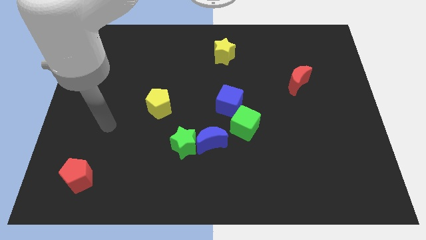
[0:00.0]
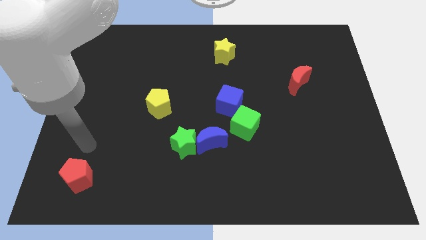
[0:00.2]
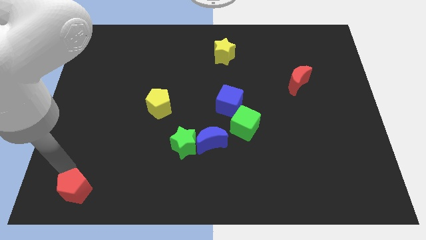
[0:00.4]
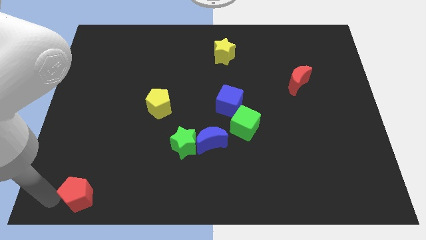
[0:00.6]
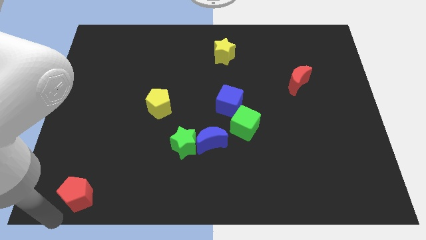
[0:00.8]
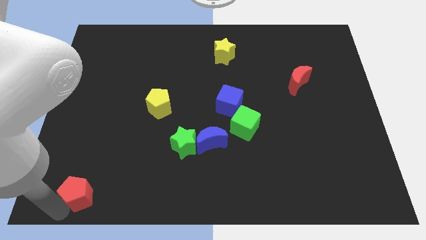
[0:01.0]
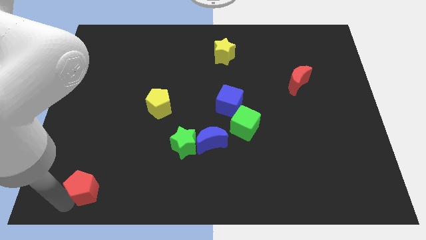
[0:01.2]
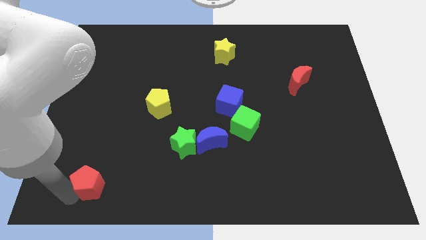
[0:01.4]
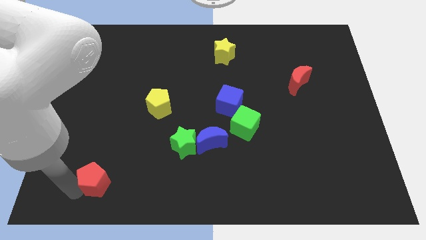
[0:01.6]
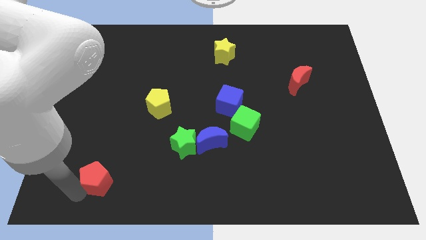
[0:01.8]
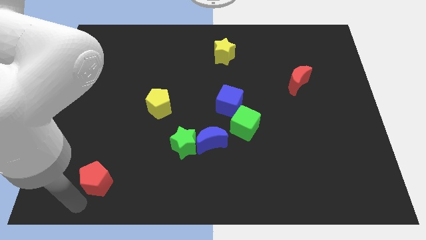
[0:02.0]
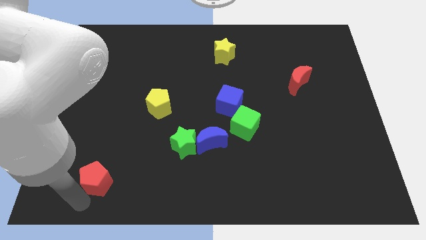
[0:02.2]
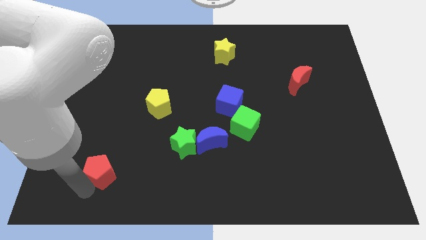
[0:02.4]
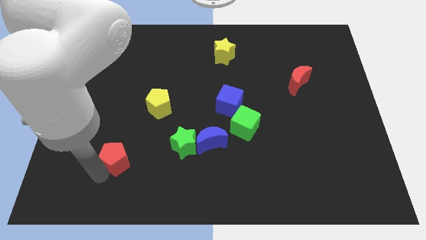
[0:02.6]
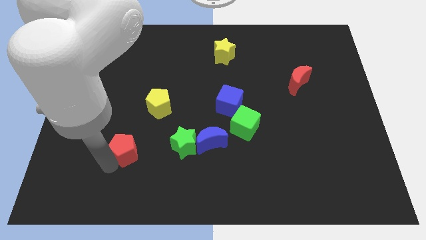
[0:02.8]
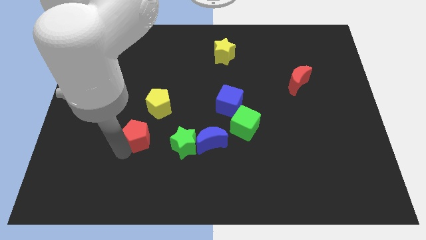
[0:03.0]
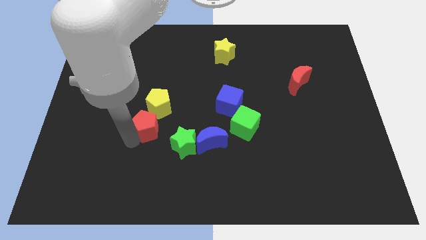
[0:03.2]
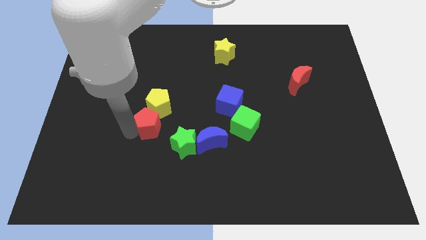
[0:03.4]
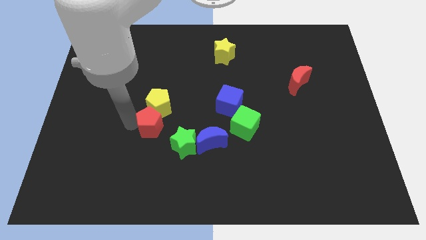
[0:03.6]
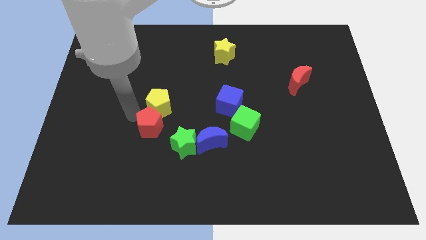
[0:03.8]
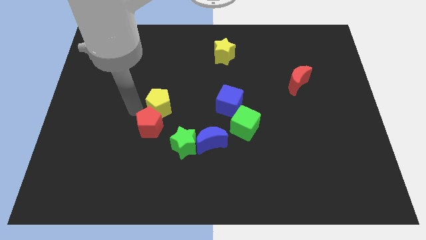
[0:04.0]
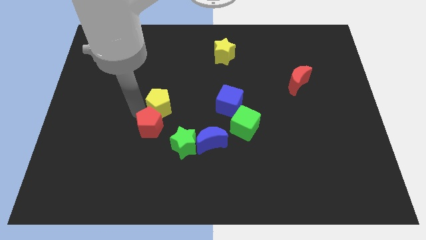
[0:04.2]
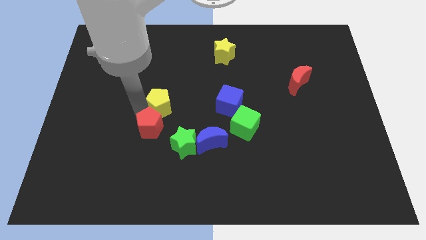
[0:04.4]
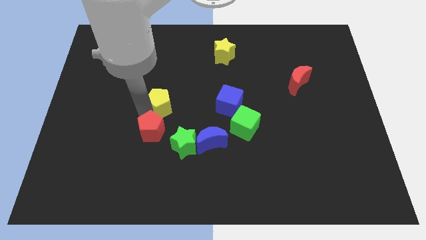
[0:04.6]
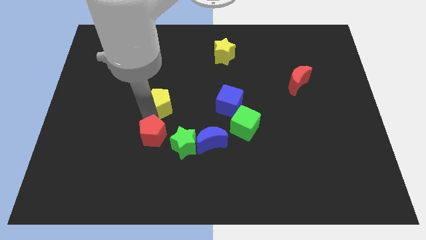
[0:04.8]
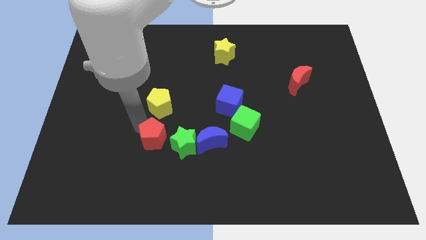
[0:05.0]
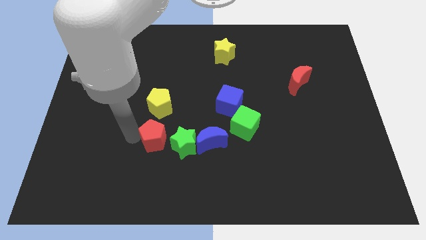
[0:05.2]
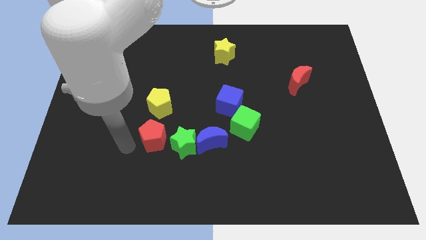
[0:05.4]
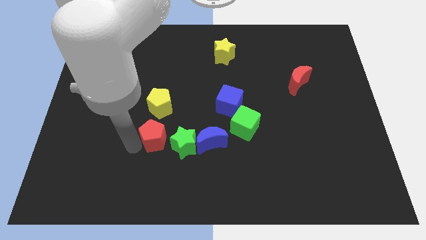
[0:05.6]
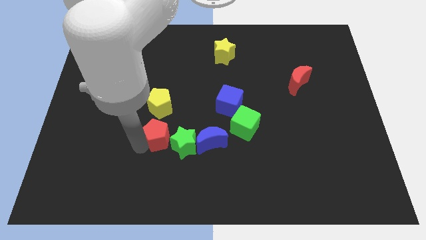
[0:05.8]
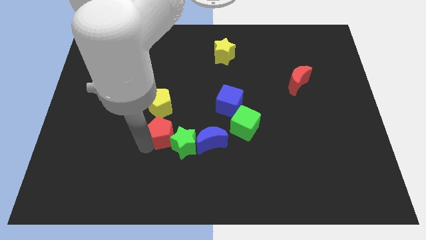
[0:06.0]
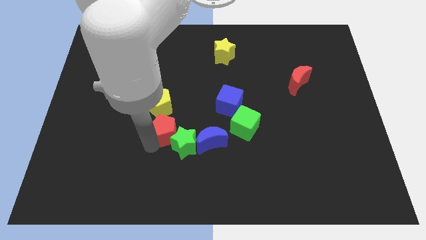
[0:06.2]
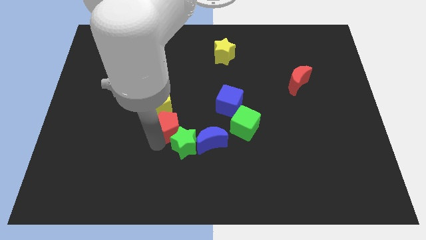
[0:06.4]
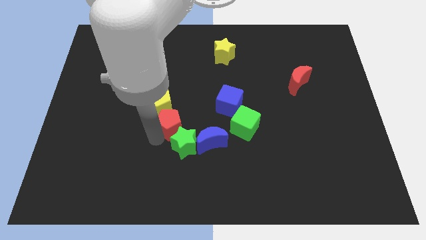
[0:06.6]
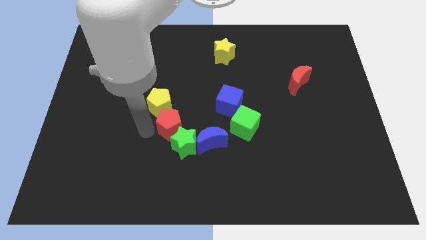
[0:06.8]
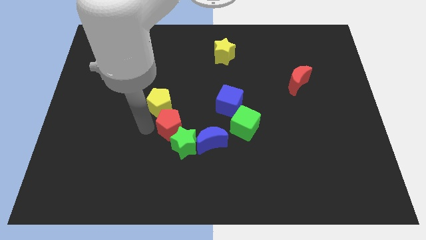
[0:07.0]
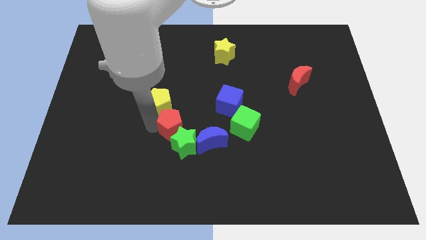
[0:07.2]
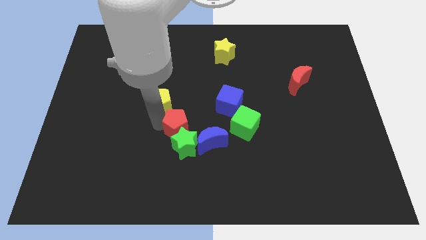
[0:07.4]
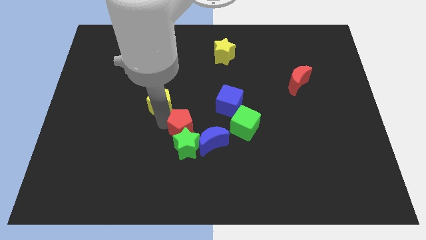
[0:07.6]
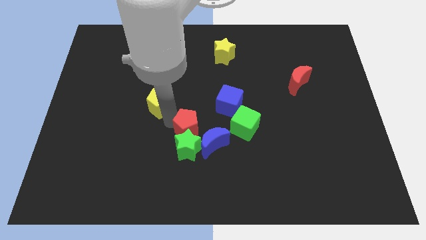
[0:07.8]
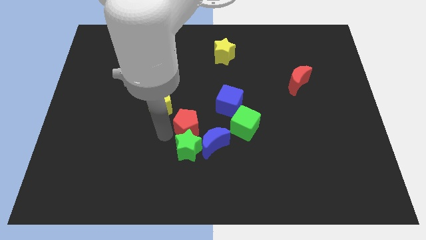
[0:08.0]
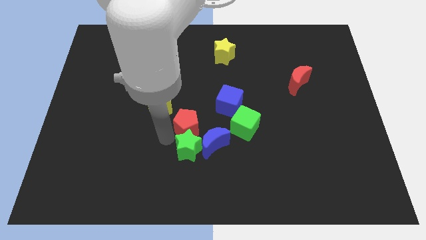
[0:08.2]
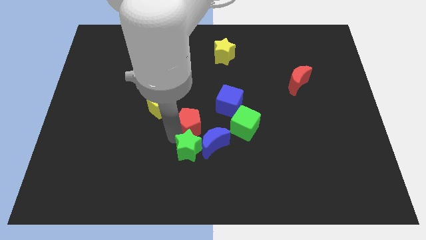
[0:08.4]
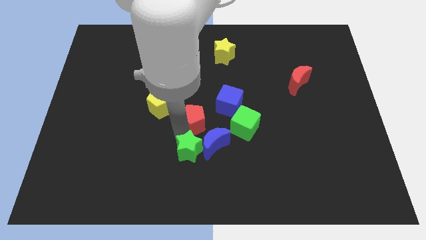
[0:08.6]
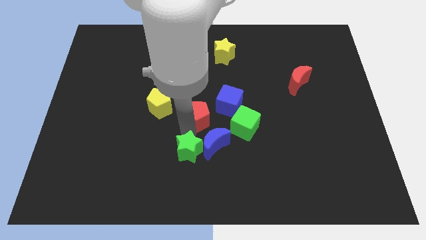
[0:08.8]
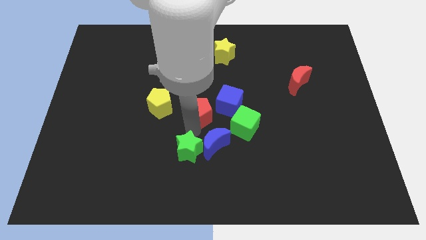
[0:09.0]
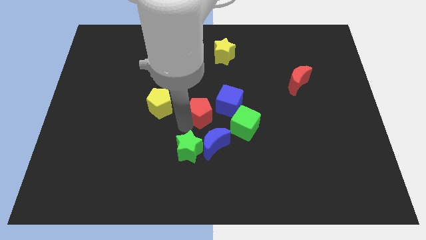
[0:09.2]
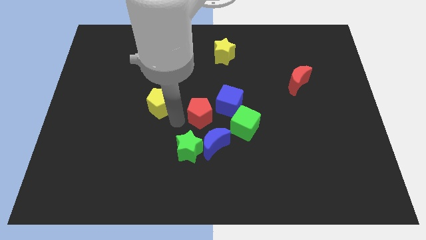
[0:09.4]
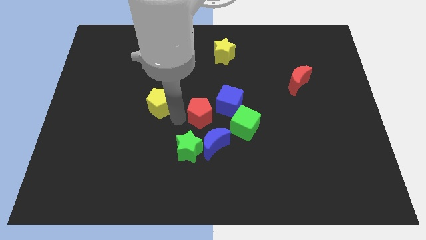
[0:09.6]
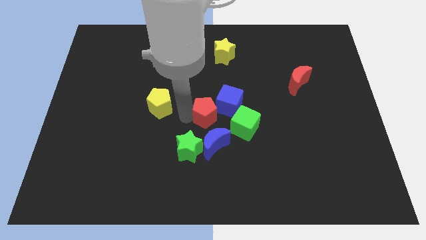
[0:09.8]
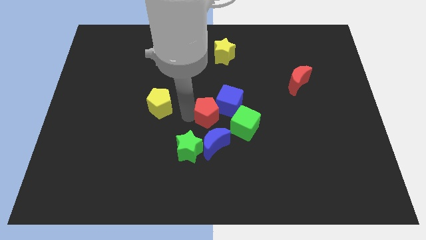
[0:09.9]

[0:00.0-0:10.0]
put the red pentagon towards the blue cube

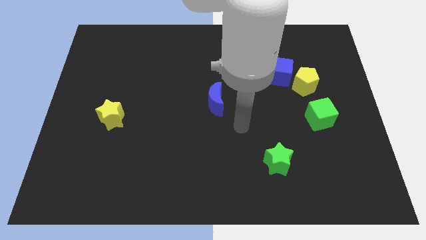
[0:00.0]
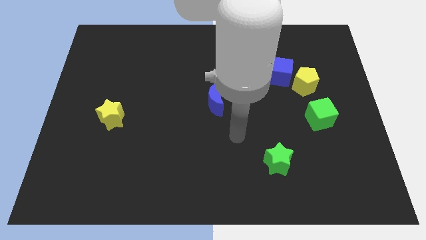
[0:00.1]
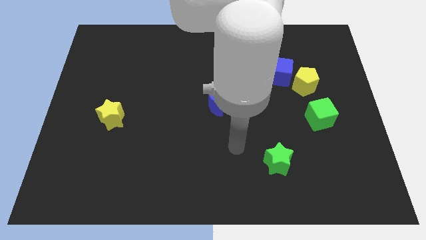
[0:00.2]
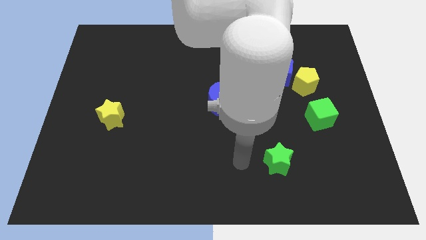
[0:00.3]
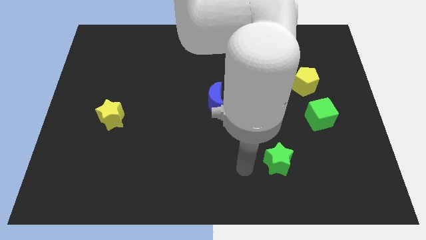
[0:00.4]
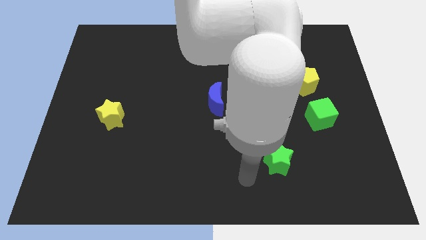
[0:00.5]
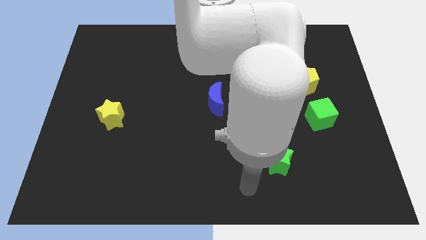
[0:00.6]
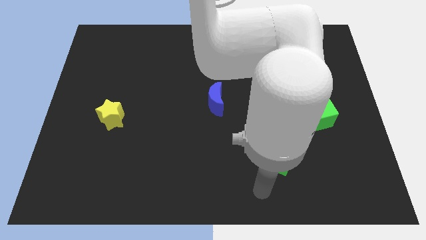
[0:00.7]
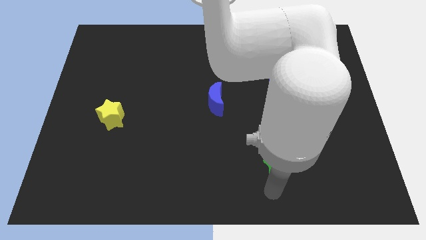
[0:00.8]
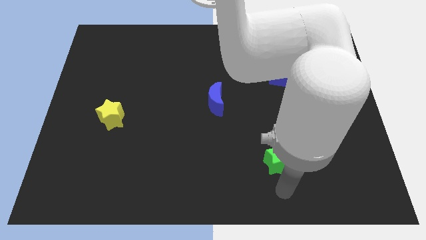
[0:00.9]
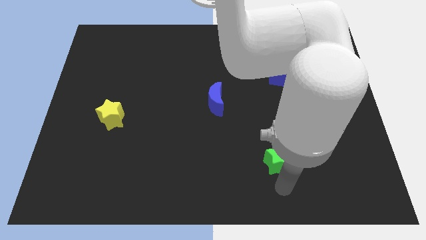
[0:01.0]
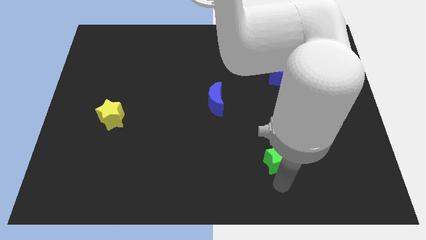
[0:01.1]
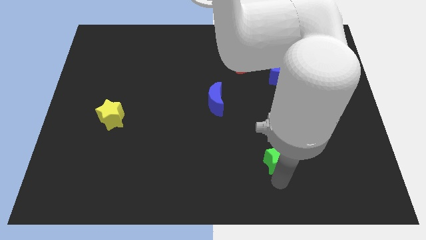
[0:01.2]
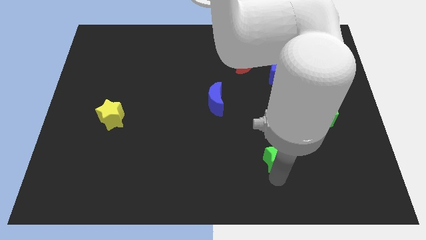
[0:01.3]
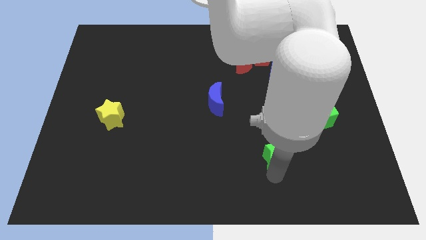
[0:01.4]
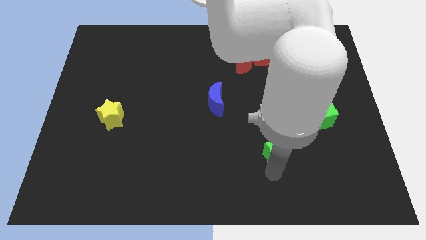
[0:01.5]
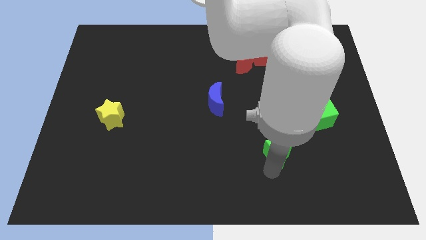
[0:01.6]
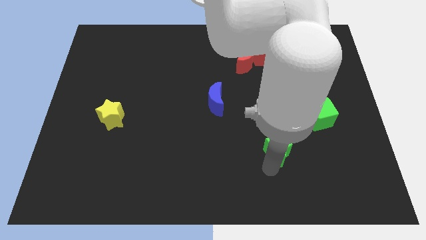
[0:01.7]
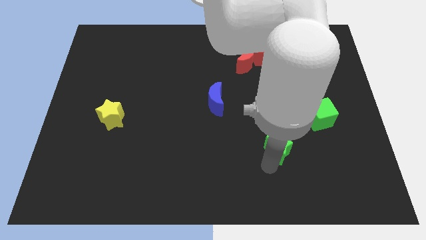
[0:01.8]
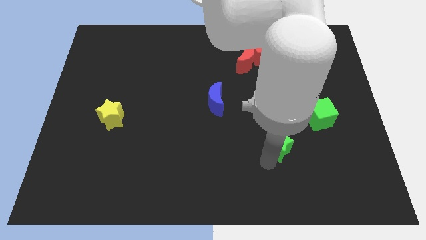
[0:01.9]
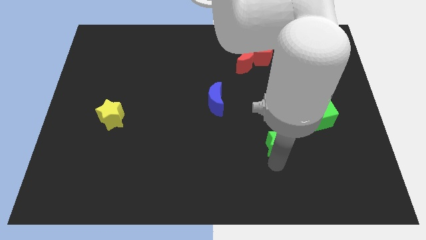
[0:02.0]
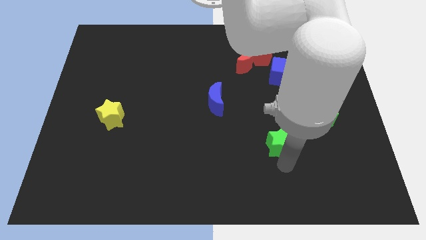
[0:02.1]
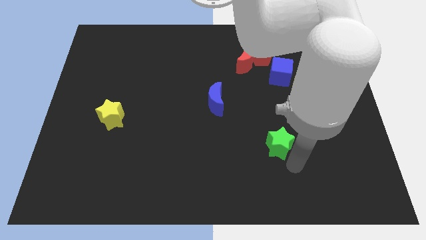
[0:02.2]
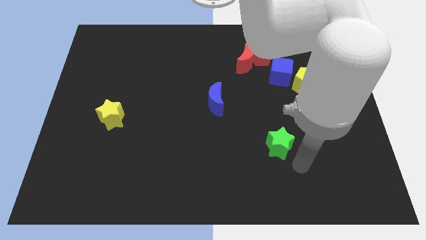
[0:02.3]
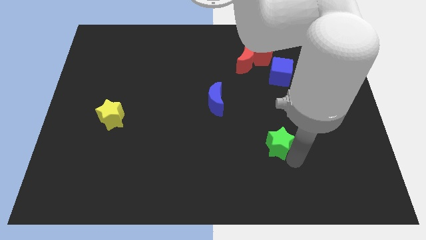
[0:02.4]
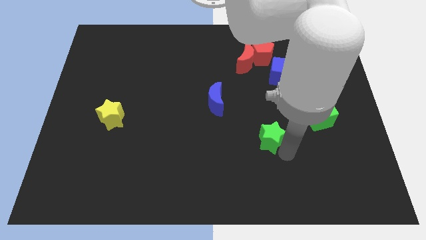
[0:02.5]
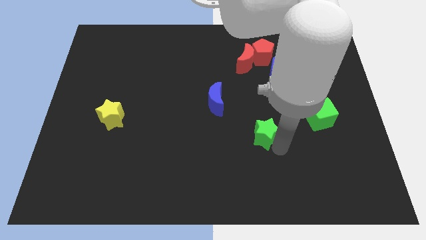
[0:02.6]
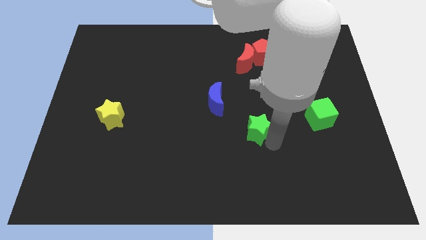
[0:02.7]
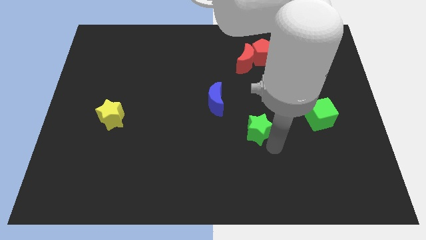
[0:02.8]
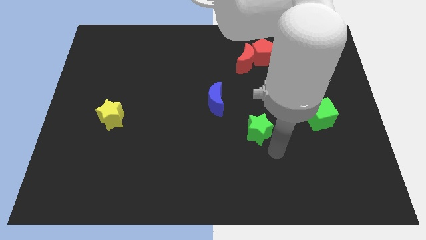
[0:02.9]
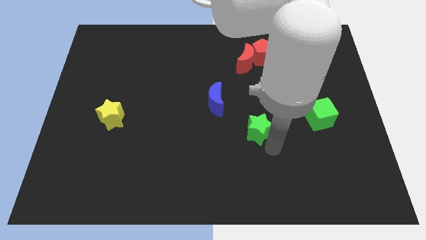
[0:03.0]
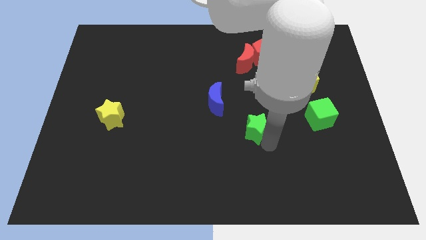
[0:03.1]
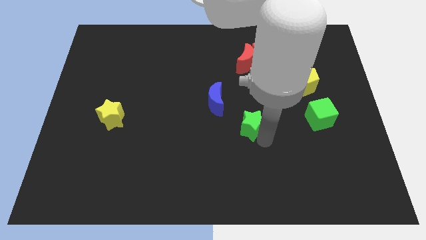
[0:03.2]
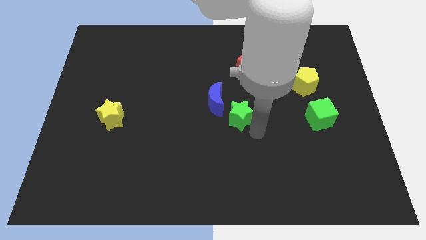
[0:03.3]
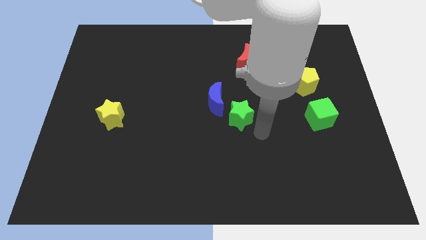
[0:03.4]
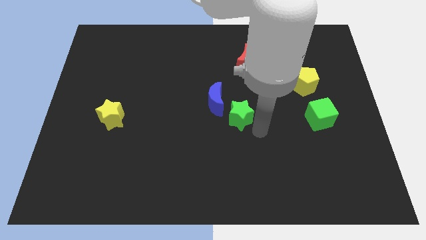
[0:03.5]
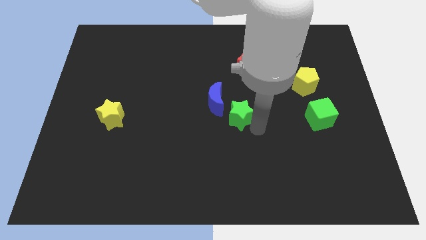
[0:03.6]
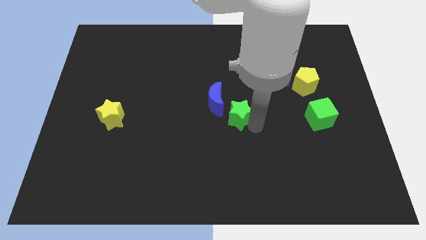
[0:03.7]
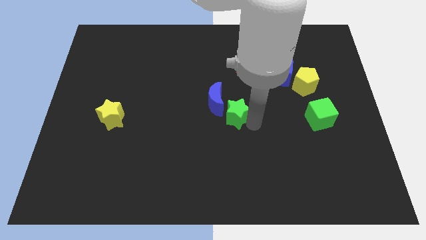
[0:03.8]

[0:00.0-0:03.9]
move the green star towards the blue moon
